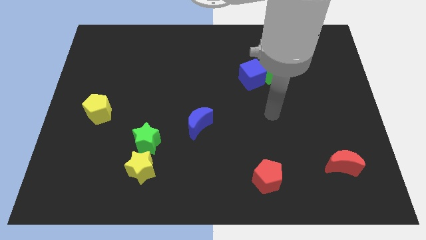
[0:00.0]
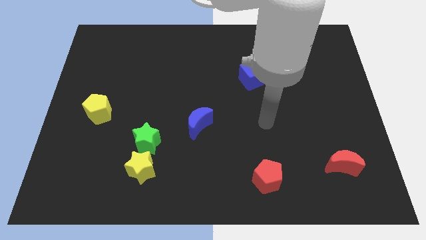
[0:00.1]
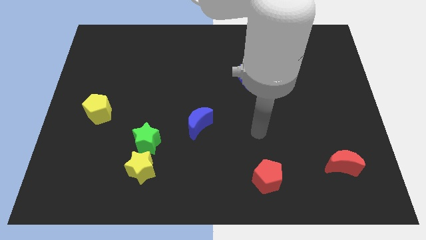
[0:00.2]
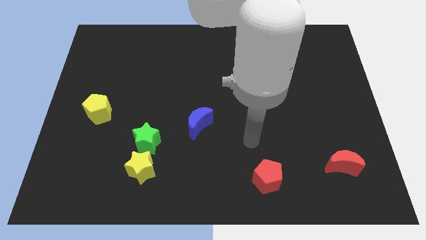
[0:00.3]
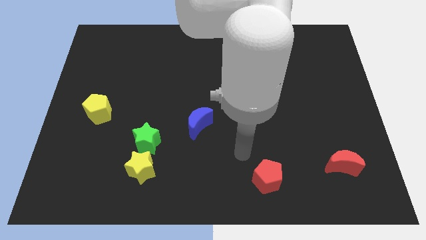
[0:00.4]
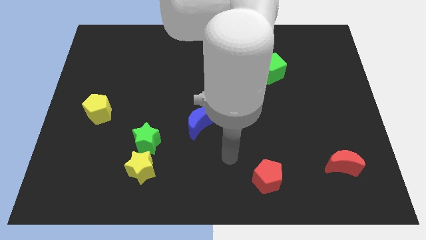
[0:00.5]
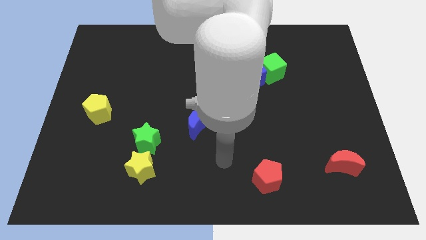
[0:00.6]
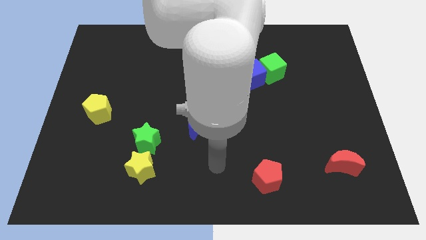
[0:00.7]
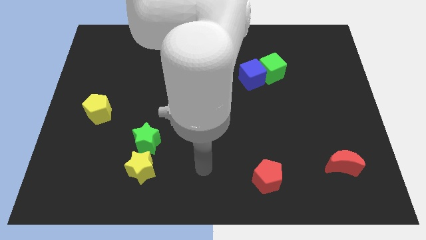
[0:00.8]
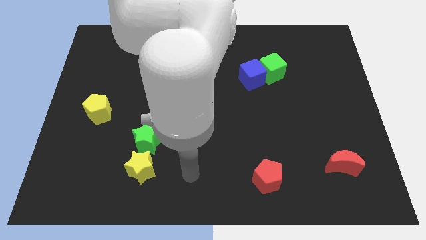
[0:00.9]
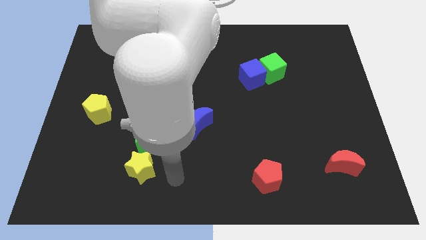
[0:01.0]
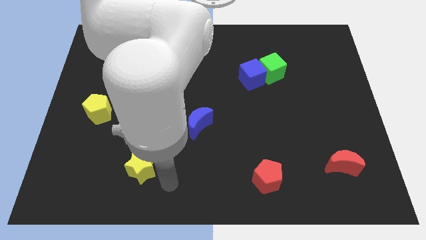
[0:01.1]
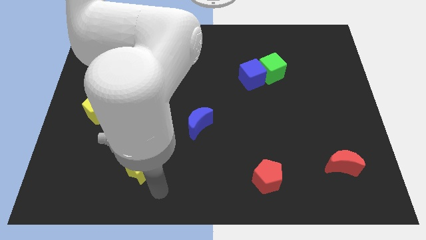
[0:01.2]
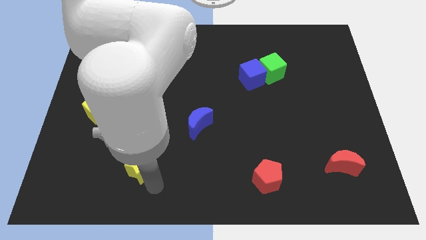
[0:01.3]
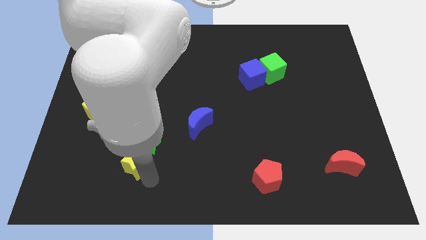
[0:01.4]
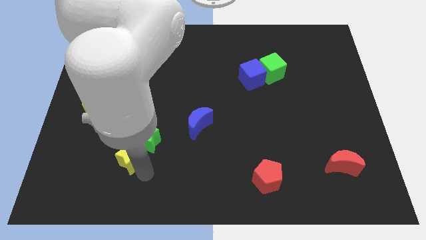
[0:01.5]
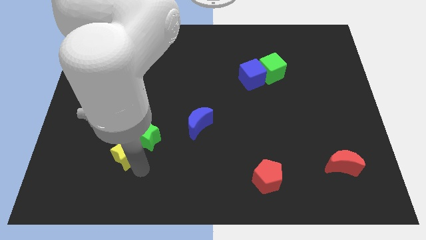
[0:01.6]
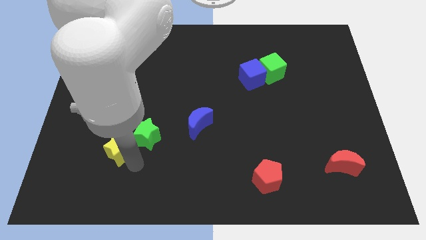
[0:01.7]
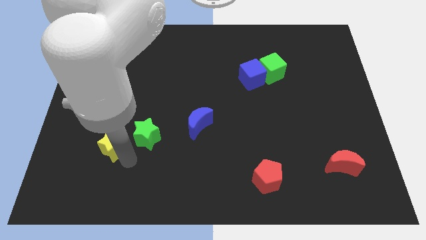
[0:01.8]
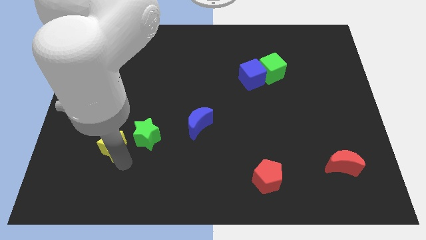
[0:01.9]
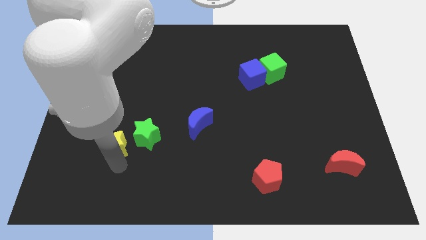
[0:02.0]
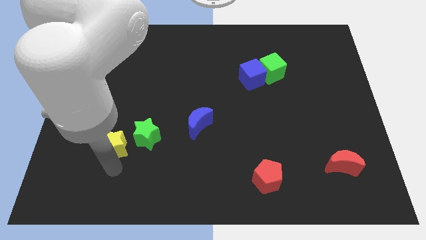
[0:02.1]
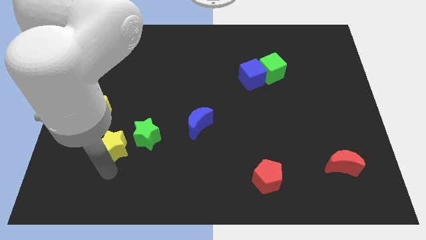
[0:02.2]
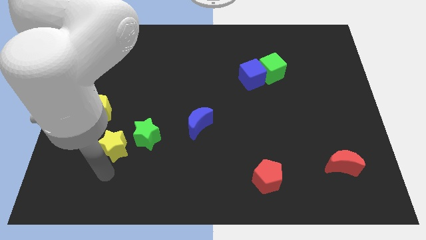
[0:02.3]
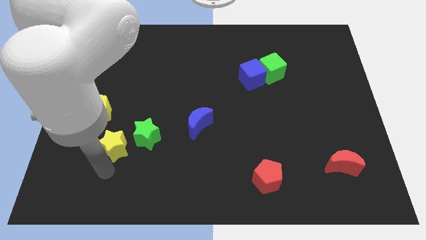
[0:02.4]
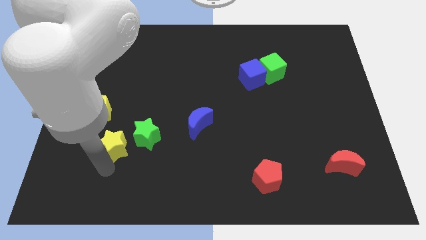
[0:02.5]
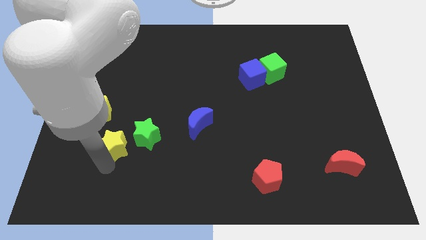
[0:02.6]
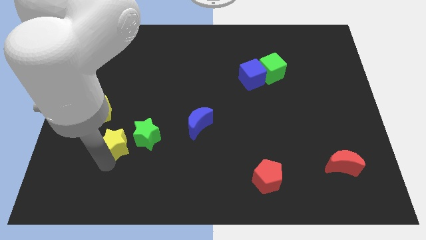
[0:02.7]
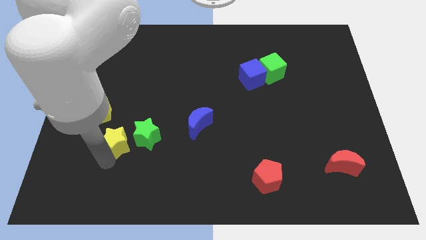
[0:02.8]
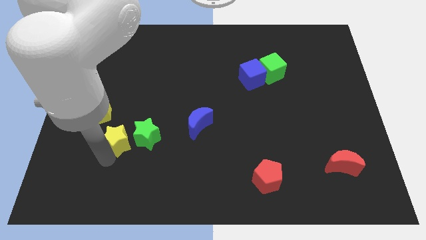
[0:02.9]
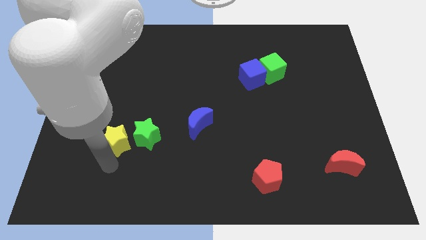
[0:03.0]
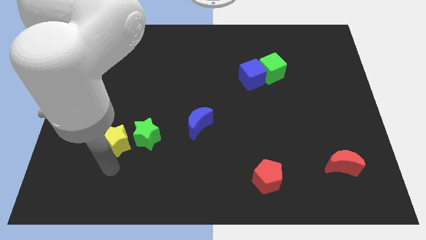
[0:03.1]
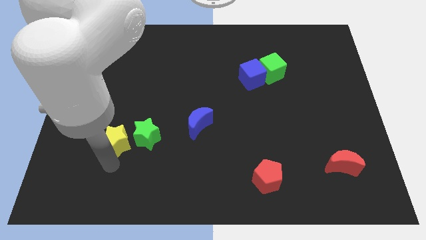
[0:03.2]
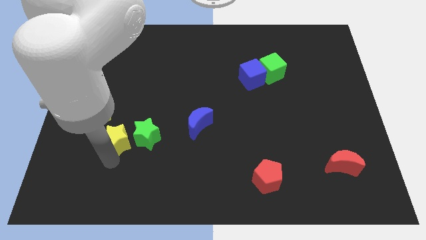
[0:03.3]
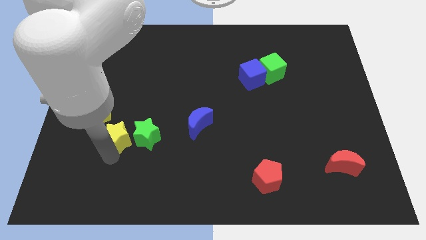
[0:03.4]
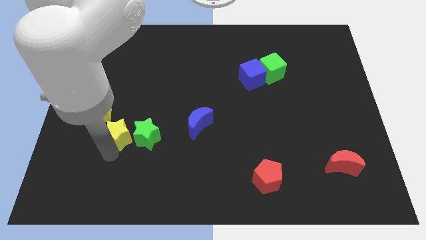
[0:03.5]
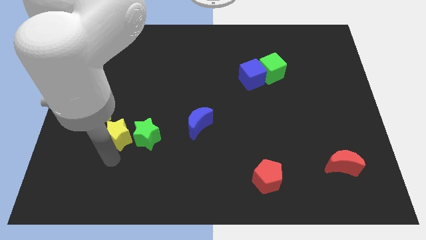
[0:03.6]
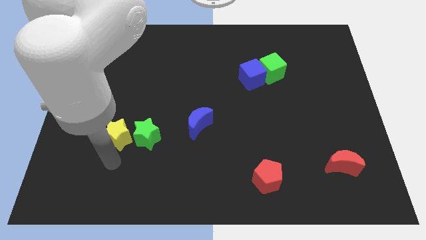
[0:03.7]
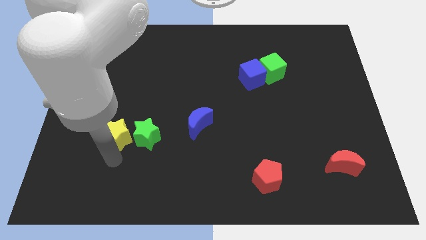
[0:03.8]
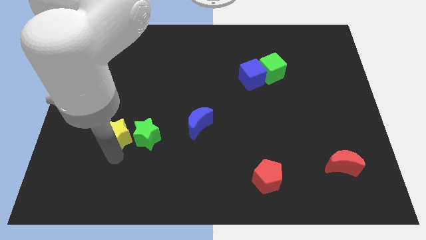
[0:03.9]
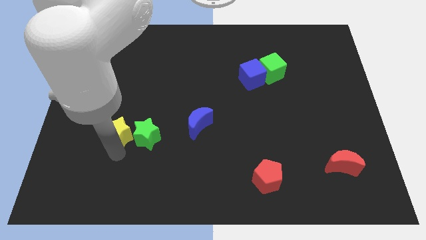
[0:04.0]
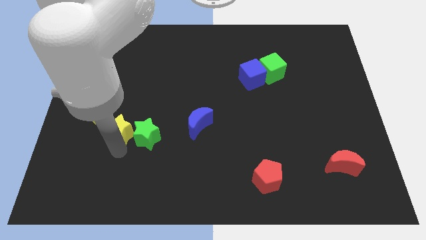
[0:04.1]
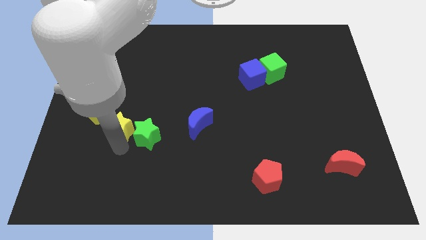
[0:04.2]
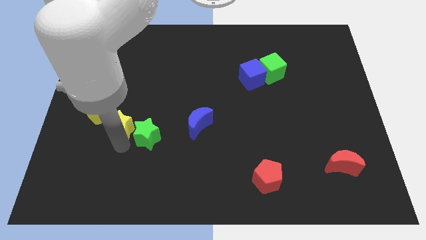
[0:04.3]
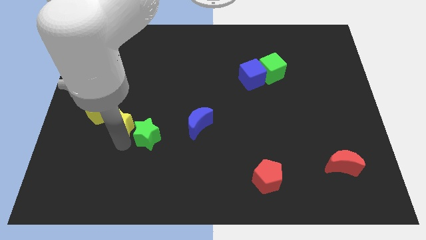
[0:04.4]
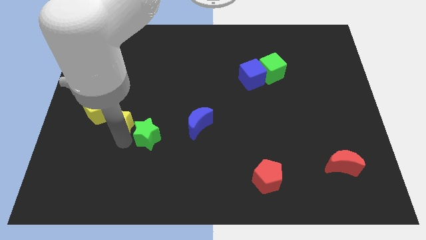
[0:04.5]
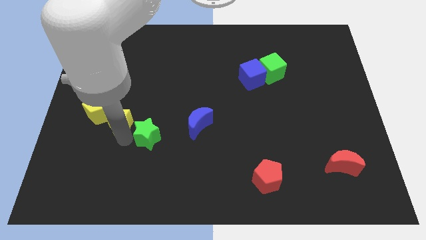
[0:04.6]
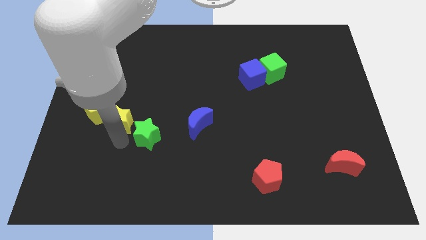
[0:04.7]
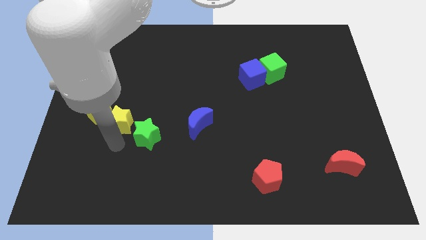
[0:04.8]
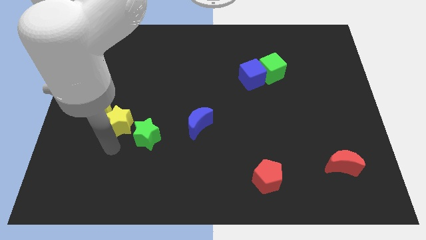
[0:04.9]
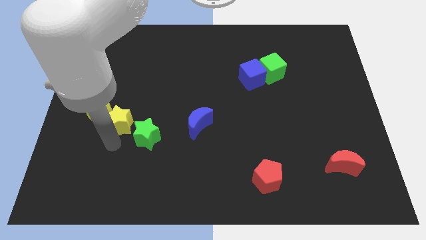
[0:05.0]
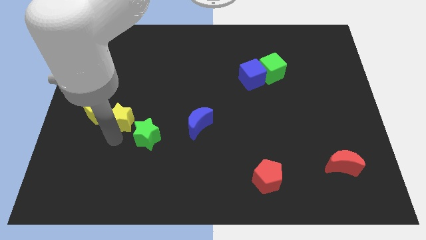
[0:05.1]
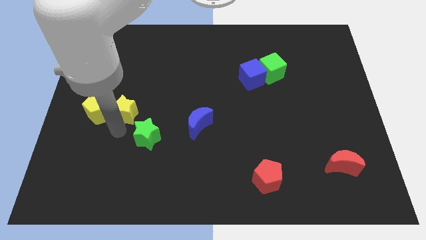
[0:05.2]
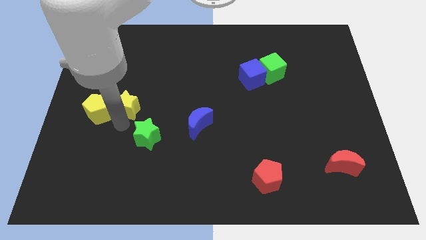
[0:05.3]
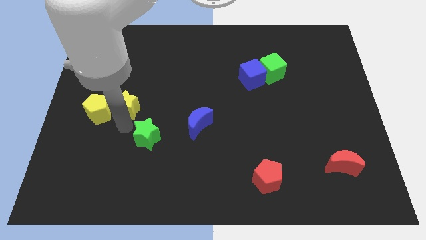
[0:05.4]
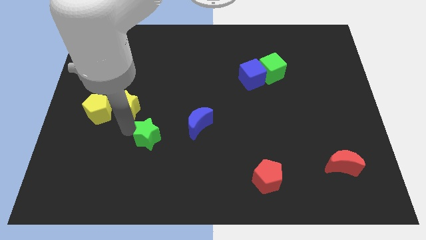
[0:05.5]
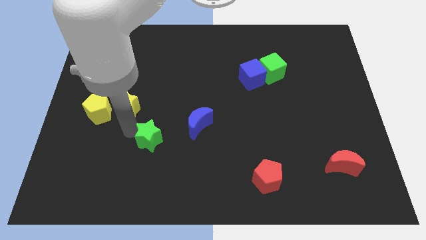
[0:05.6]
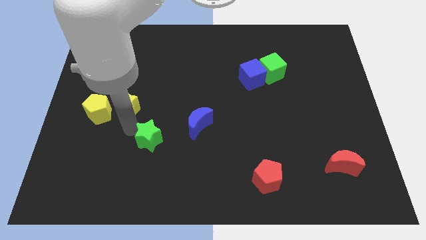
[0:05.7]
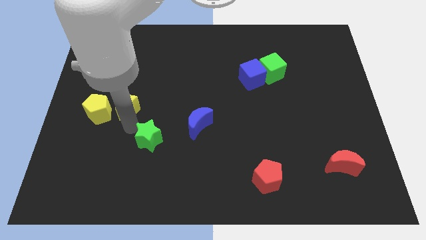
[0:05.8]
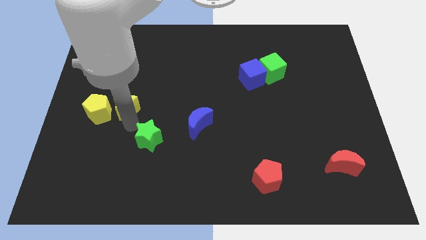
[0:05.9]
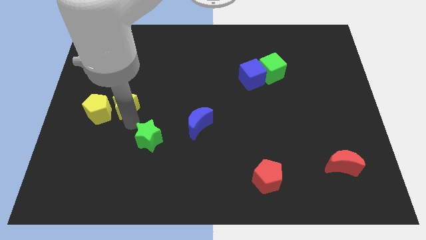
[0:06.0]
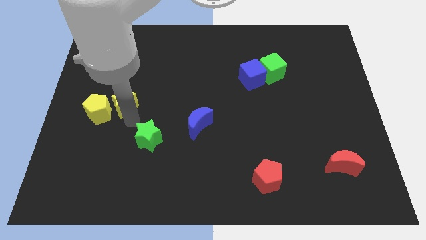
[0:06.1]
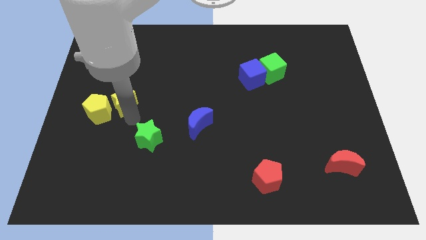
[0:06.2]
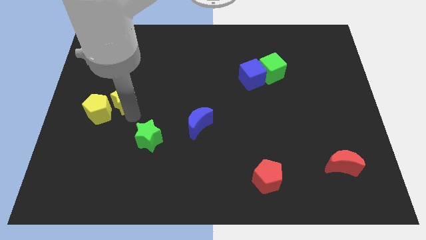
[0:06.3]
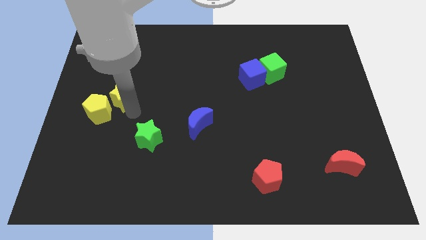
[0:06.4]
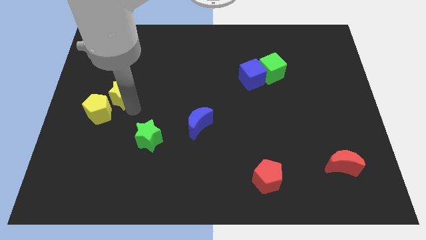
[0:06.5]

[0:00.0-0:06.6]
slide the yellow star to the top of the yellow pentagon

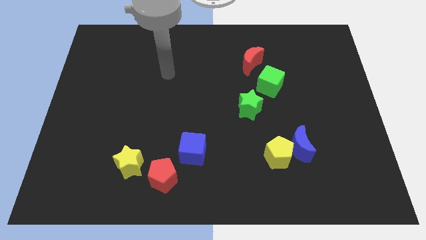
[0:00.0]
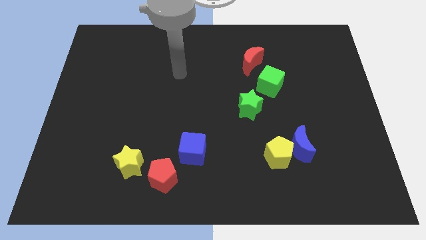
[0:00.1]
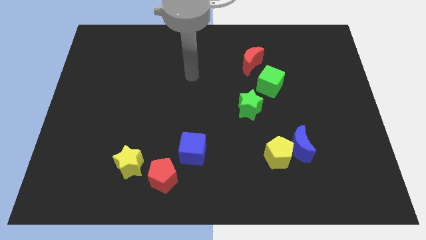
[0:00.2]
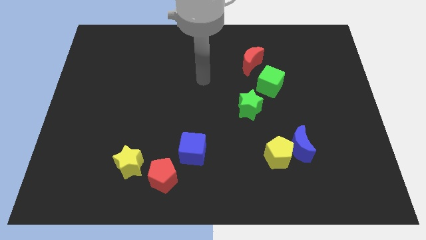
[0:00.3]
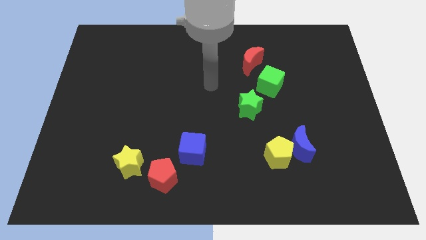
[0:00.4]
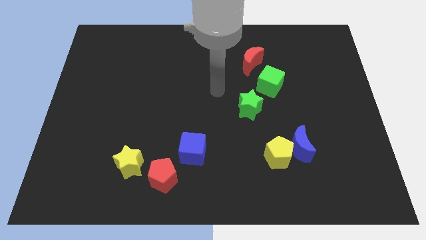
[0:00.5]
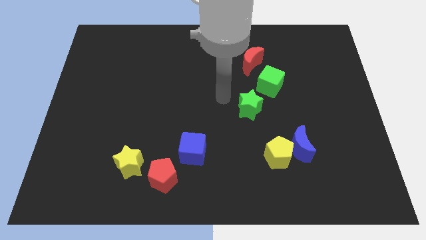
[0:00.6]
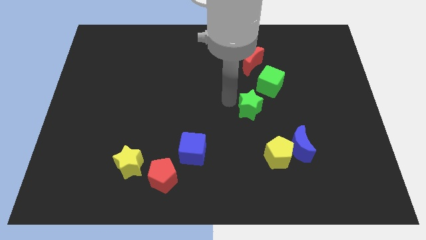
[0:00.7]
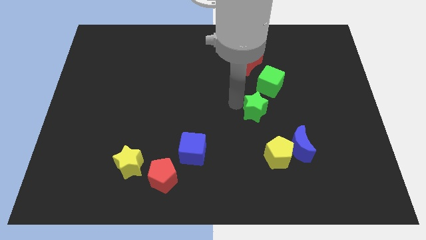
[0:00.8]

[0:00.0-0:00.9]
put the green star to the top side of the yellow pentagon
